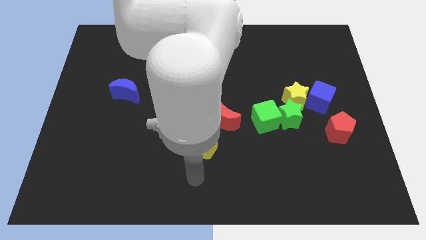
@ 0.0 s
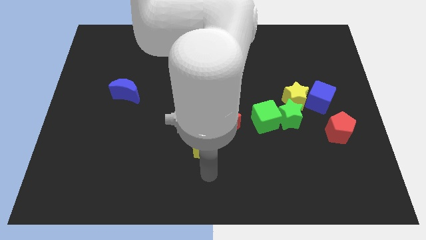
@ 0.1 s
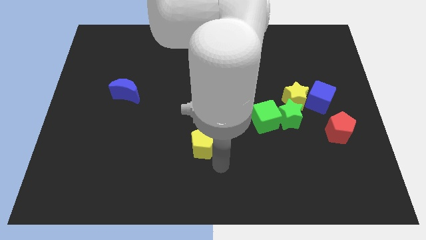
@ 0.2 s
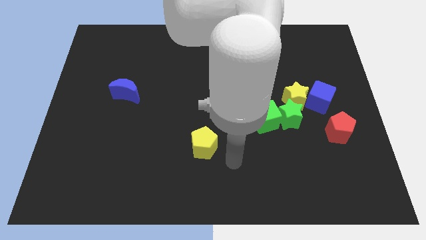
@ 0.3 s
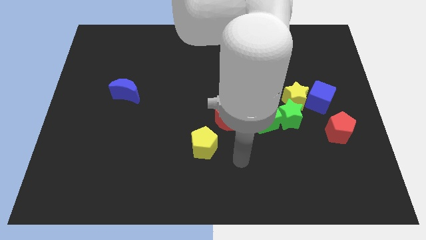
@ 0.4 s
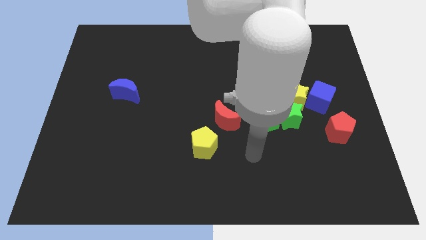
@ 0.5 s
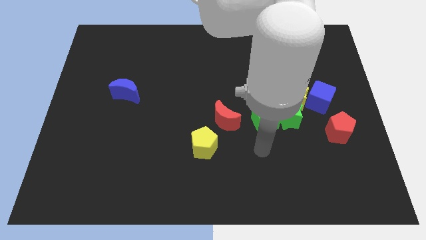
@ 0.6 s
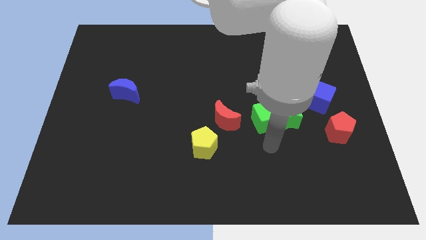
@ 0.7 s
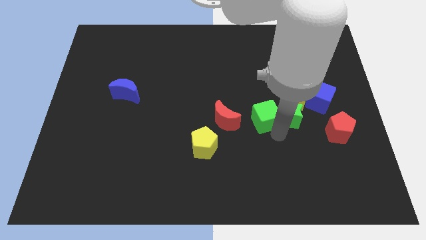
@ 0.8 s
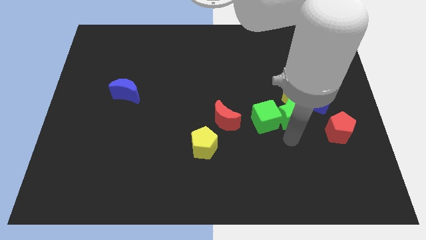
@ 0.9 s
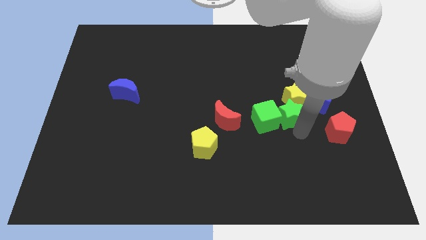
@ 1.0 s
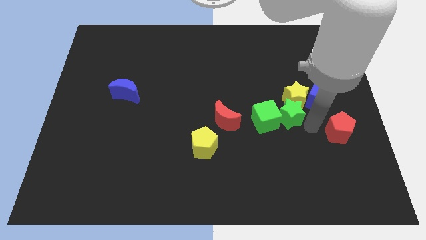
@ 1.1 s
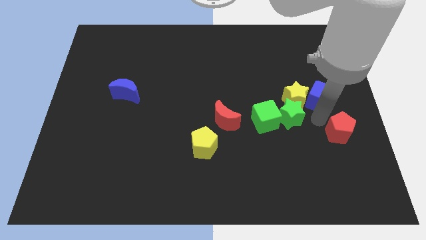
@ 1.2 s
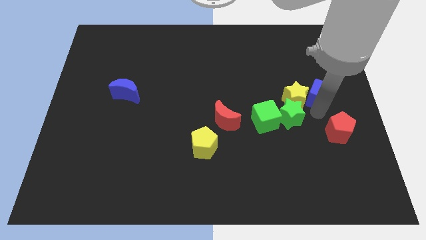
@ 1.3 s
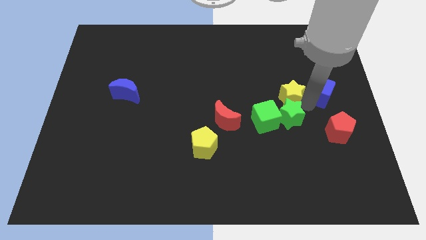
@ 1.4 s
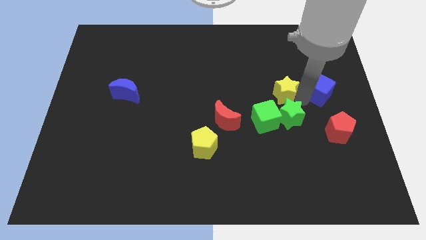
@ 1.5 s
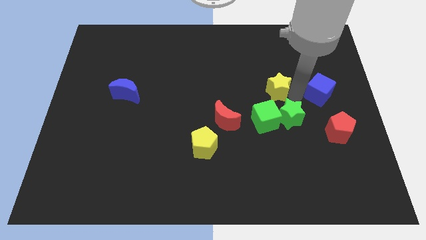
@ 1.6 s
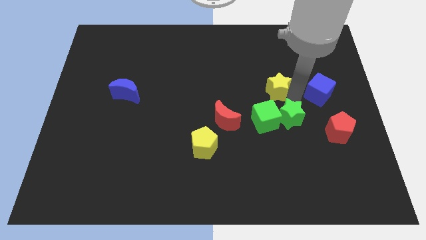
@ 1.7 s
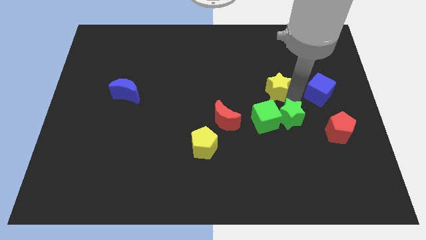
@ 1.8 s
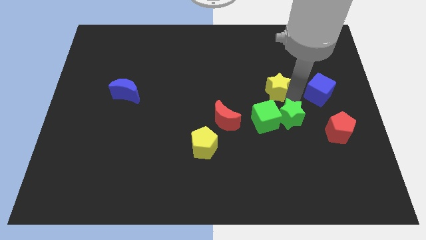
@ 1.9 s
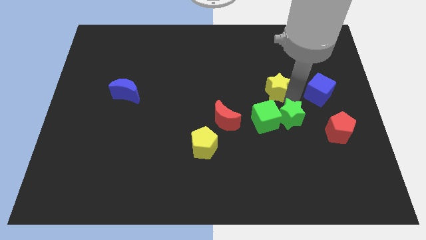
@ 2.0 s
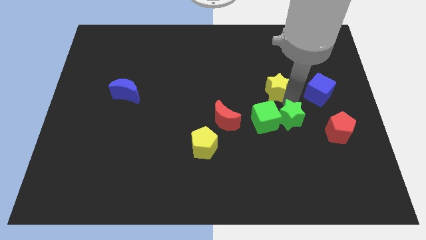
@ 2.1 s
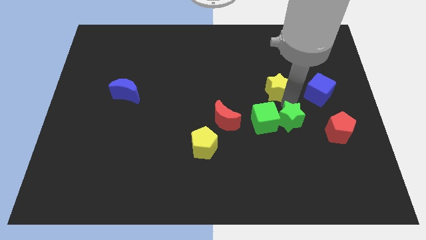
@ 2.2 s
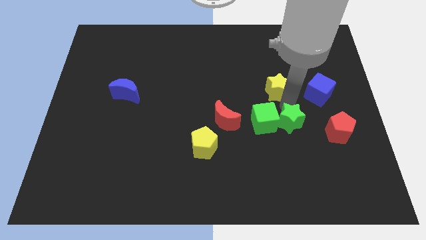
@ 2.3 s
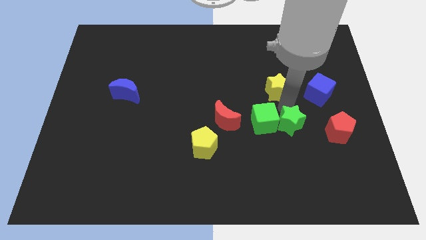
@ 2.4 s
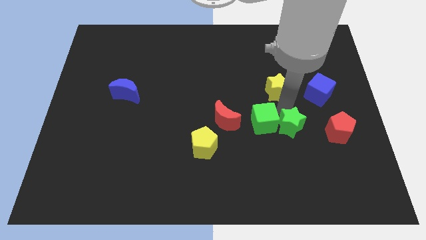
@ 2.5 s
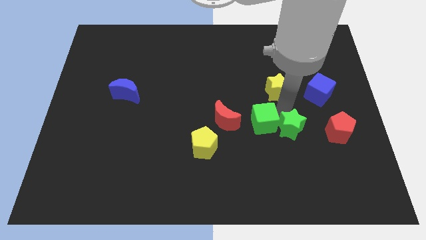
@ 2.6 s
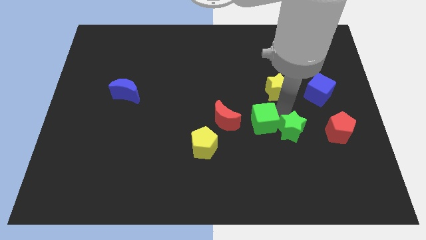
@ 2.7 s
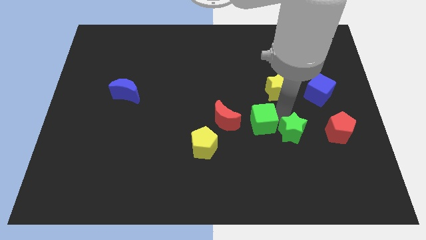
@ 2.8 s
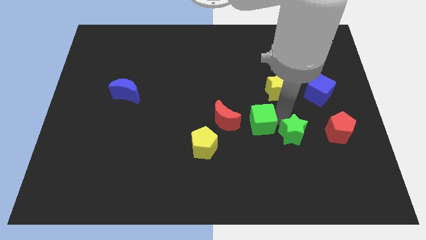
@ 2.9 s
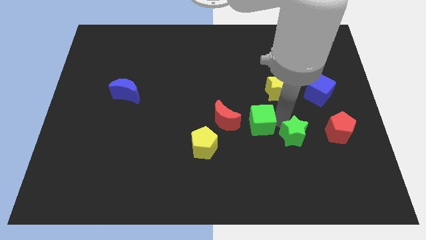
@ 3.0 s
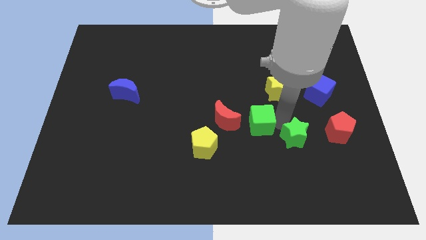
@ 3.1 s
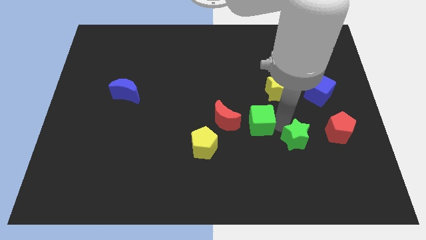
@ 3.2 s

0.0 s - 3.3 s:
move the green star away from the green cube, yellow star, and blue cube

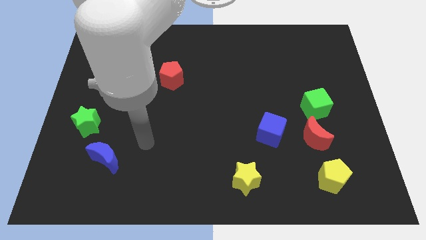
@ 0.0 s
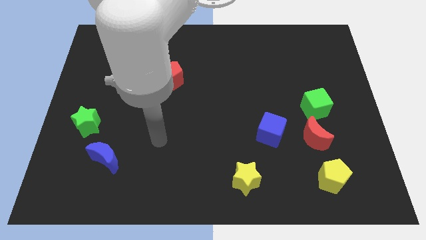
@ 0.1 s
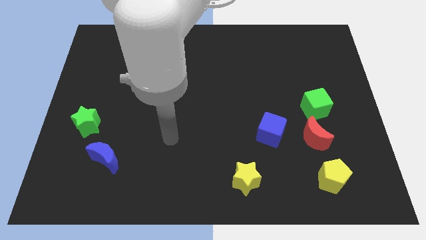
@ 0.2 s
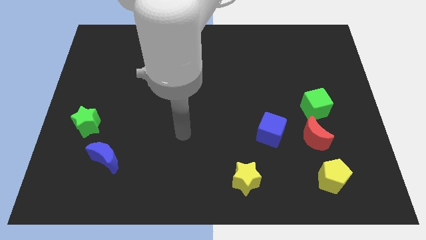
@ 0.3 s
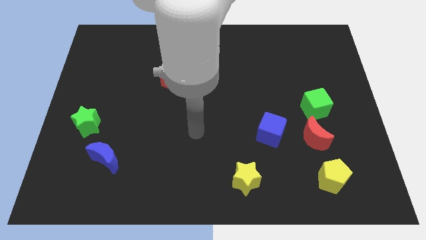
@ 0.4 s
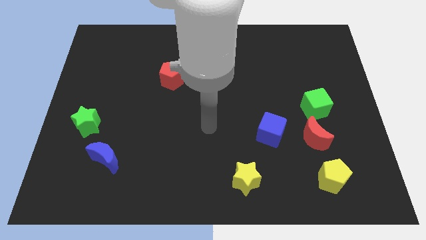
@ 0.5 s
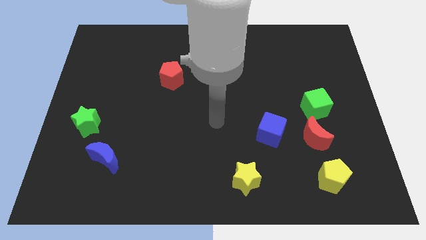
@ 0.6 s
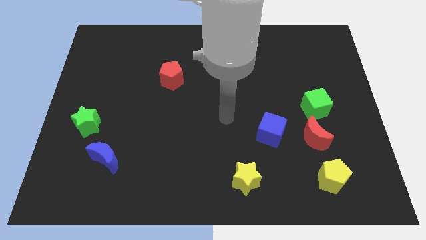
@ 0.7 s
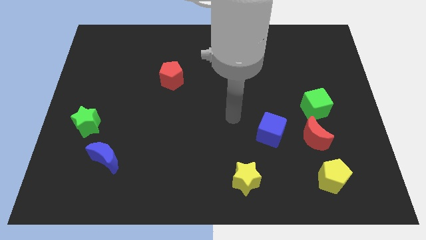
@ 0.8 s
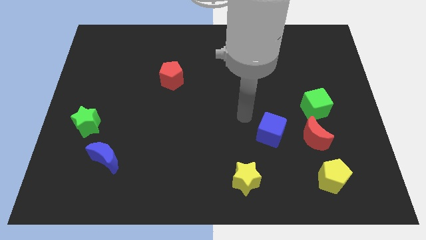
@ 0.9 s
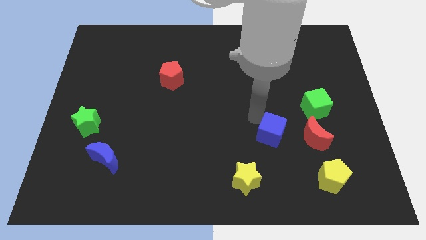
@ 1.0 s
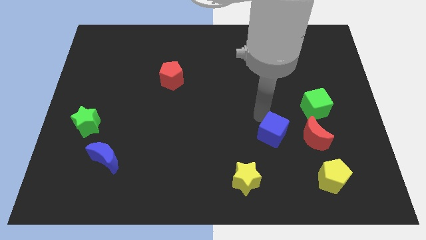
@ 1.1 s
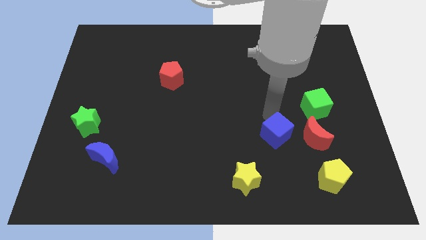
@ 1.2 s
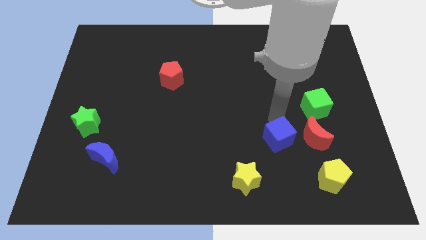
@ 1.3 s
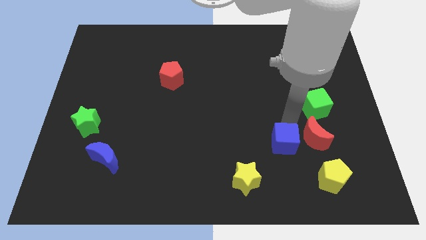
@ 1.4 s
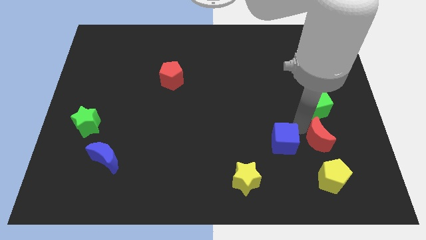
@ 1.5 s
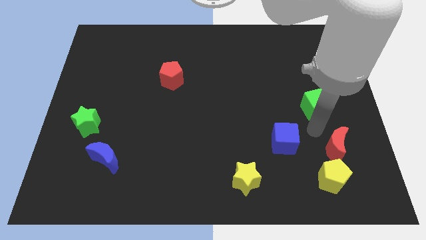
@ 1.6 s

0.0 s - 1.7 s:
move the green cube away from the red moon

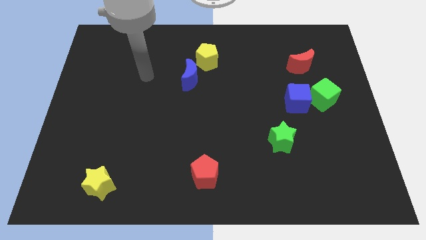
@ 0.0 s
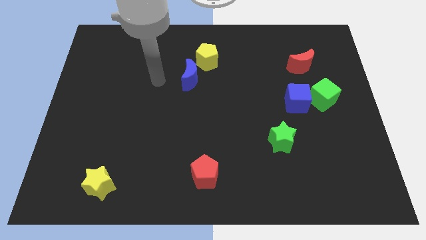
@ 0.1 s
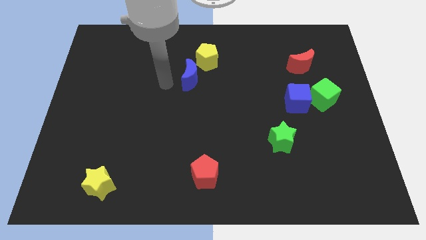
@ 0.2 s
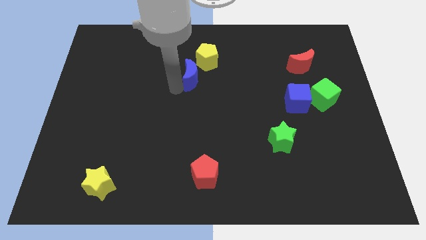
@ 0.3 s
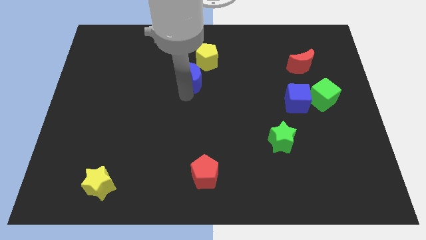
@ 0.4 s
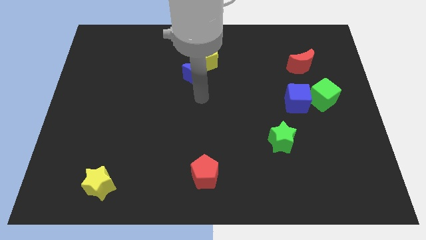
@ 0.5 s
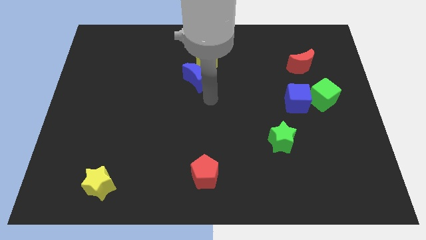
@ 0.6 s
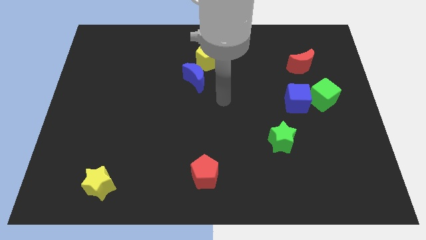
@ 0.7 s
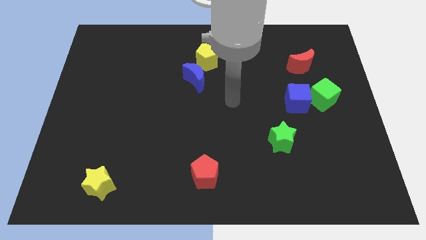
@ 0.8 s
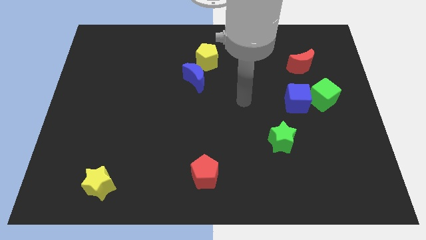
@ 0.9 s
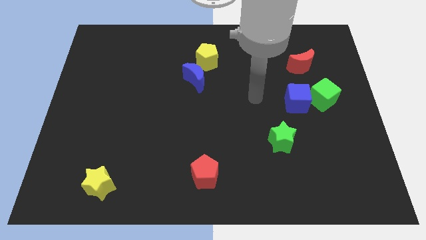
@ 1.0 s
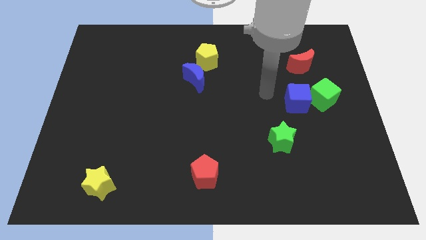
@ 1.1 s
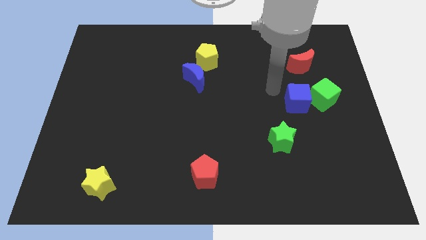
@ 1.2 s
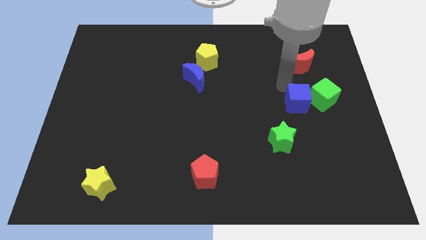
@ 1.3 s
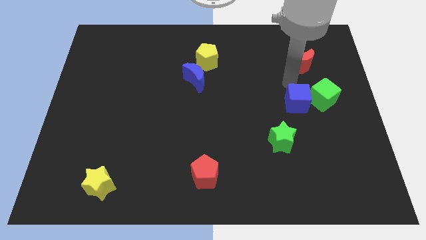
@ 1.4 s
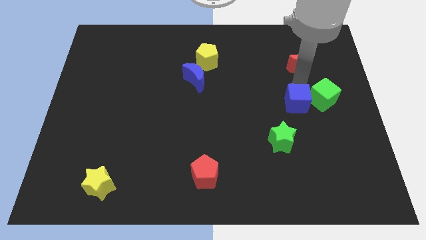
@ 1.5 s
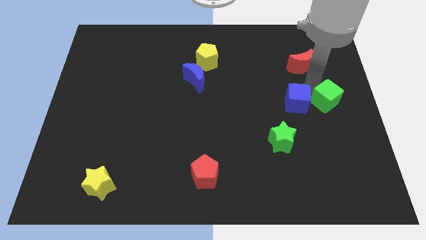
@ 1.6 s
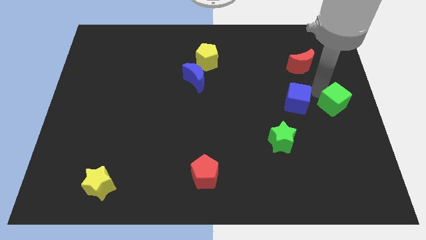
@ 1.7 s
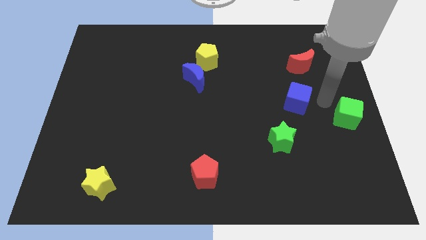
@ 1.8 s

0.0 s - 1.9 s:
separate the blue cube from the green cube

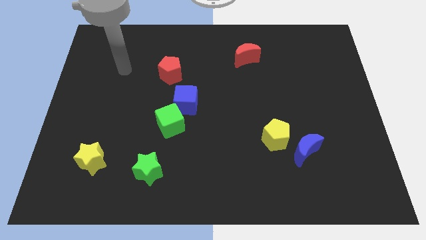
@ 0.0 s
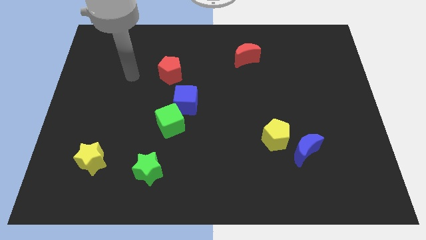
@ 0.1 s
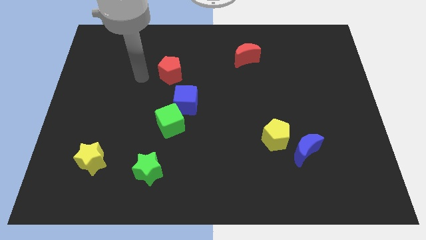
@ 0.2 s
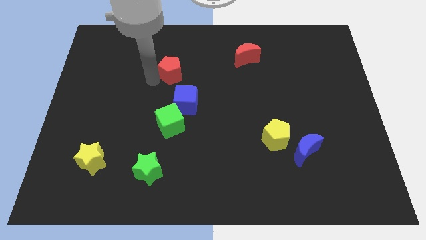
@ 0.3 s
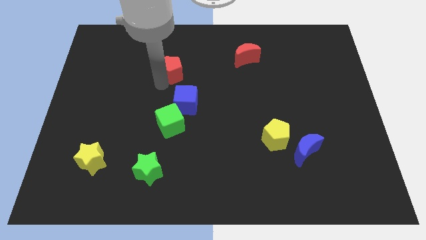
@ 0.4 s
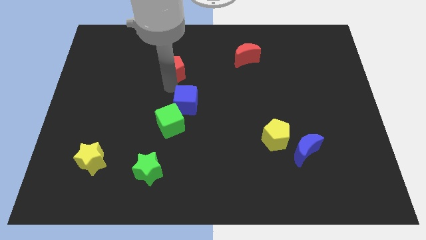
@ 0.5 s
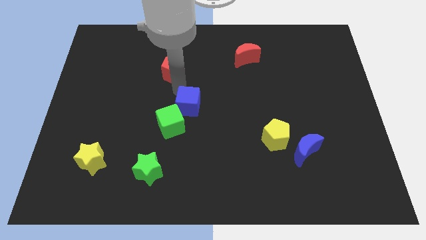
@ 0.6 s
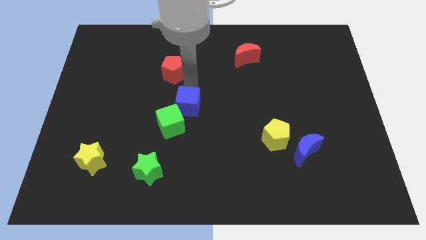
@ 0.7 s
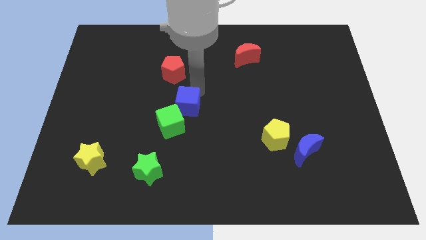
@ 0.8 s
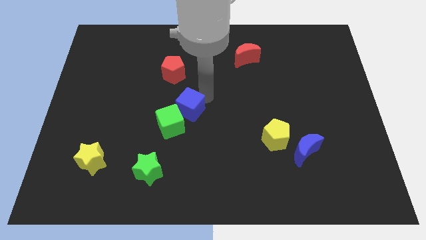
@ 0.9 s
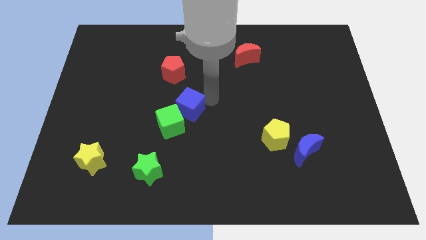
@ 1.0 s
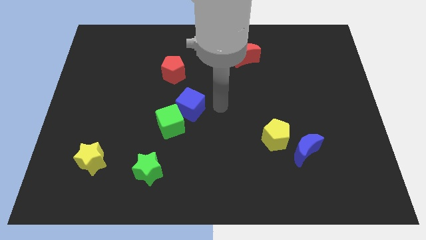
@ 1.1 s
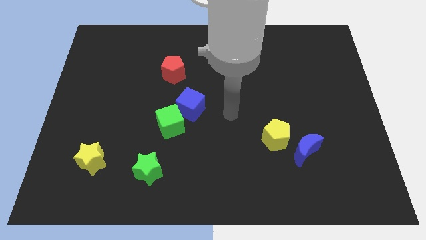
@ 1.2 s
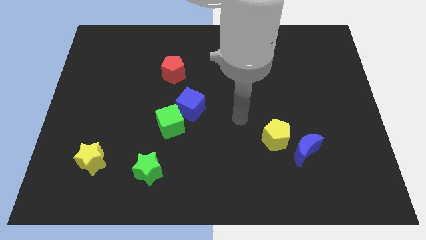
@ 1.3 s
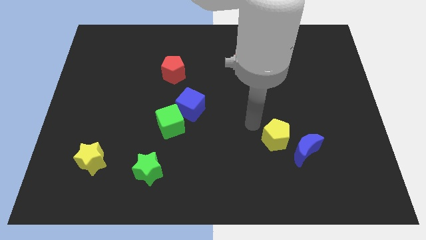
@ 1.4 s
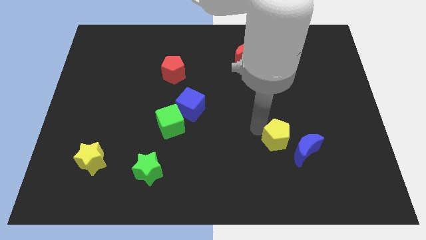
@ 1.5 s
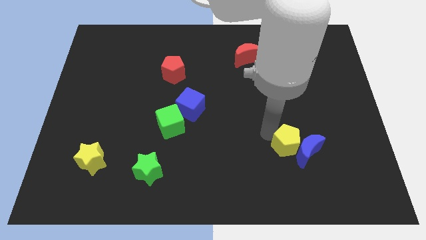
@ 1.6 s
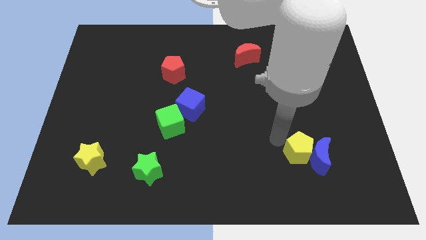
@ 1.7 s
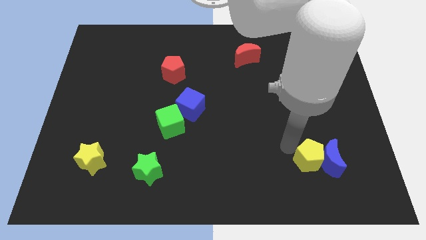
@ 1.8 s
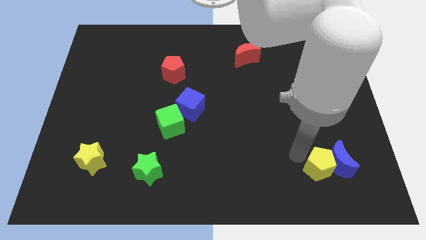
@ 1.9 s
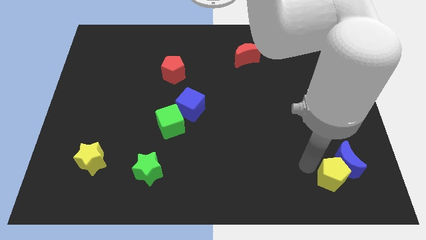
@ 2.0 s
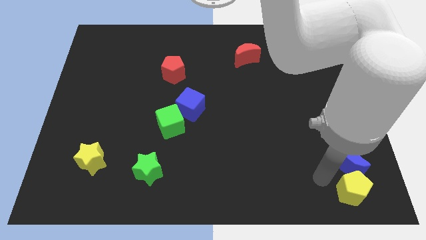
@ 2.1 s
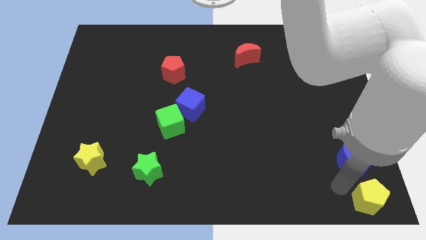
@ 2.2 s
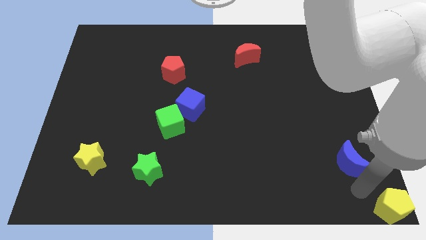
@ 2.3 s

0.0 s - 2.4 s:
separate the blue moon from the yellow pentagon

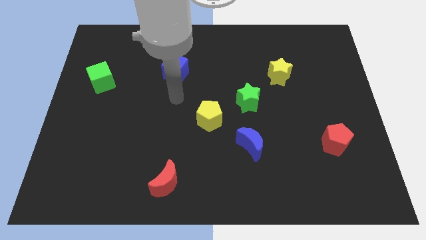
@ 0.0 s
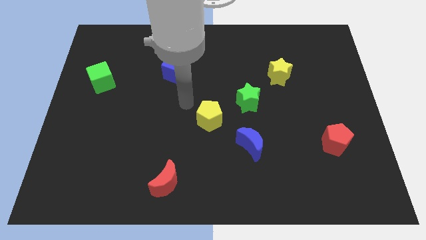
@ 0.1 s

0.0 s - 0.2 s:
move the green star away from the yellow pentagon
